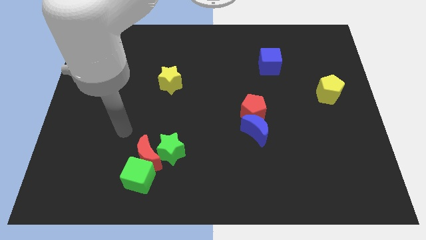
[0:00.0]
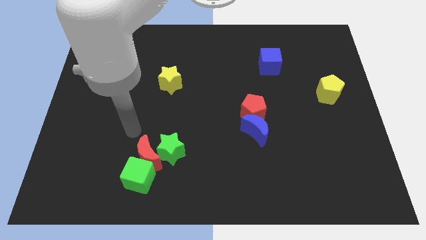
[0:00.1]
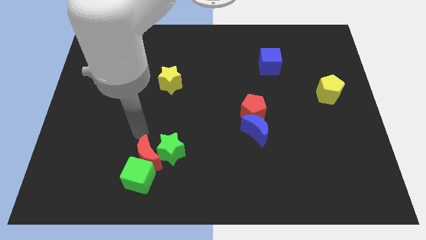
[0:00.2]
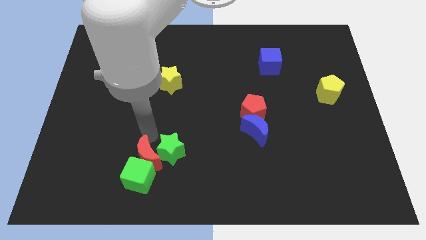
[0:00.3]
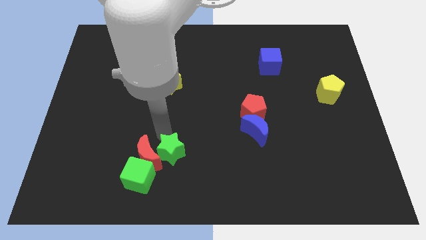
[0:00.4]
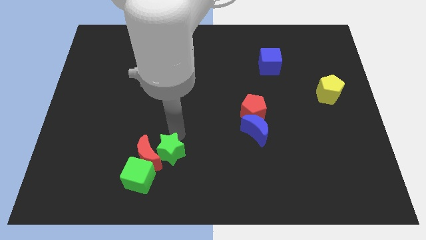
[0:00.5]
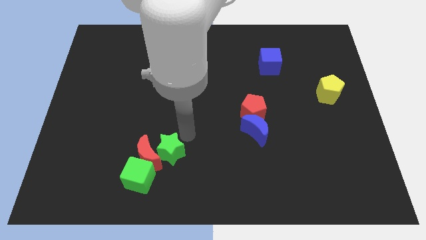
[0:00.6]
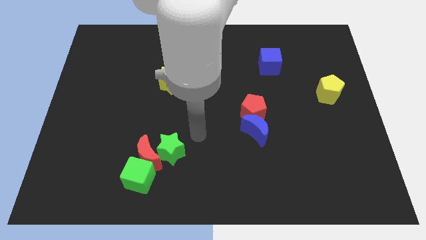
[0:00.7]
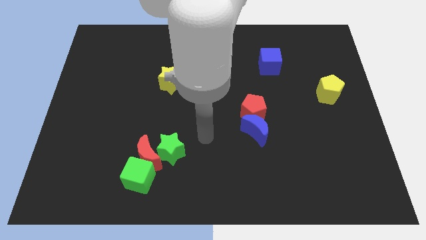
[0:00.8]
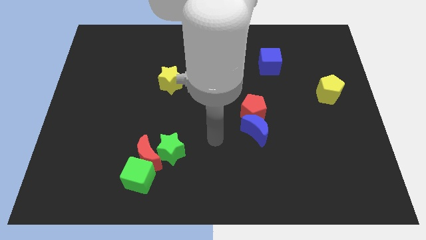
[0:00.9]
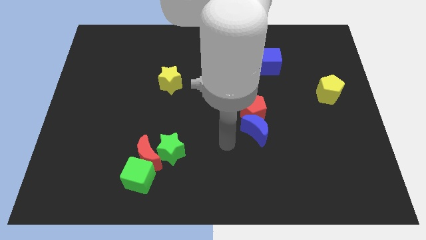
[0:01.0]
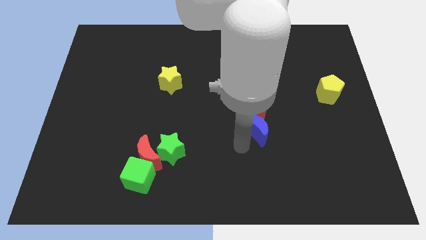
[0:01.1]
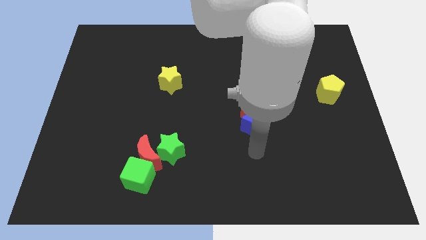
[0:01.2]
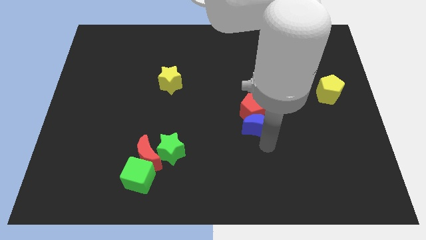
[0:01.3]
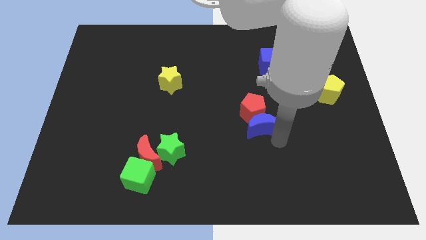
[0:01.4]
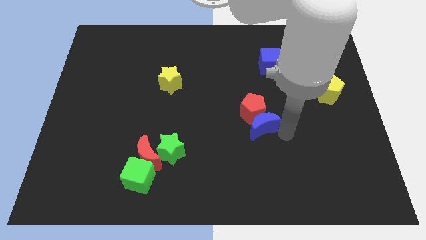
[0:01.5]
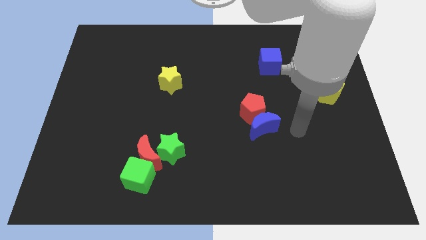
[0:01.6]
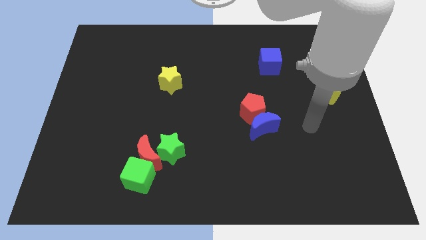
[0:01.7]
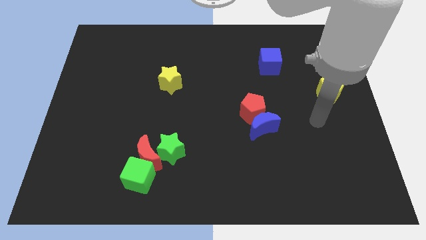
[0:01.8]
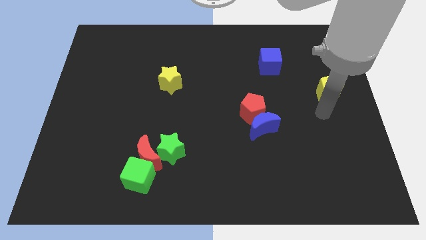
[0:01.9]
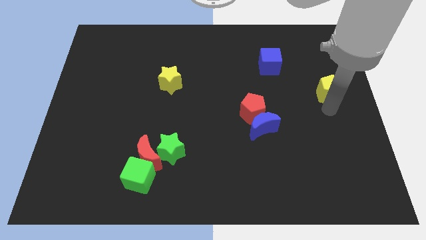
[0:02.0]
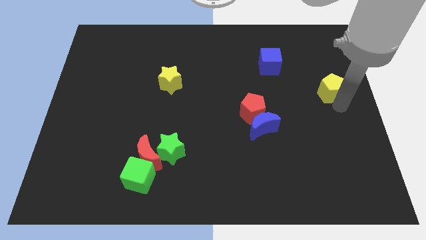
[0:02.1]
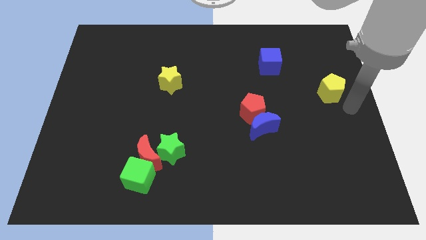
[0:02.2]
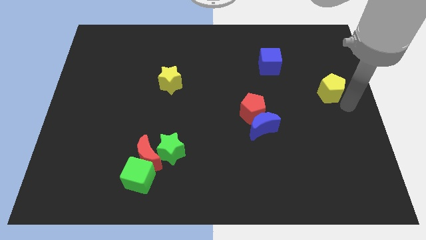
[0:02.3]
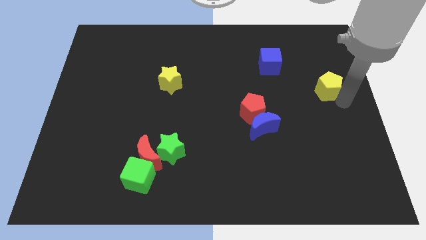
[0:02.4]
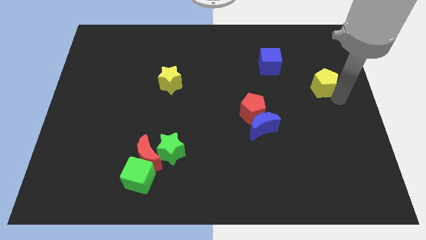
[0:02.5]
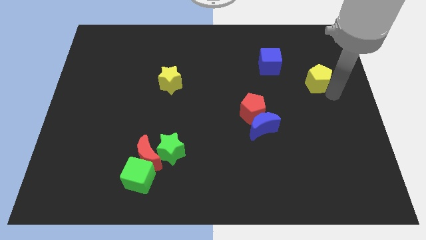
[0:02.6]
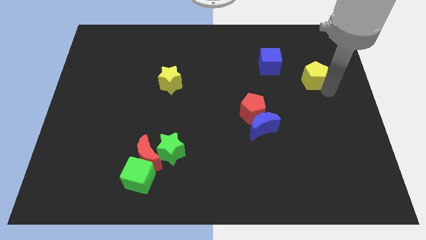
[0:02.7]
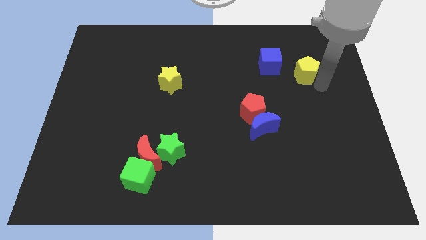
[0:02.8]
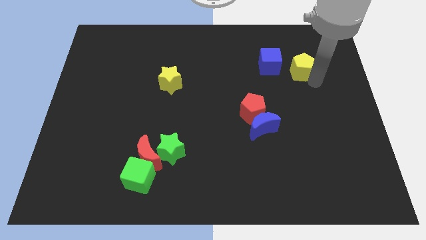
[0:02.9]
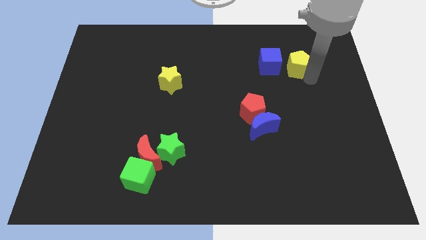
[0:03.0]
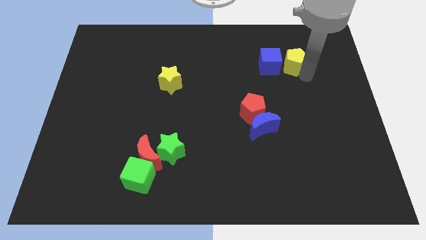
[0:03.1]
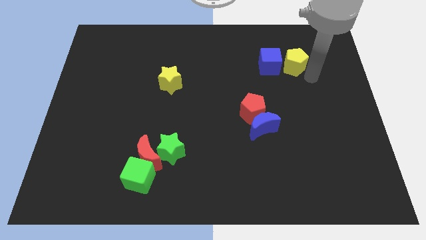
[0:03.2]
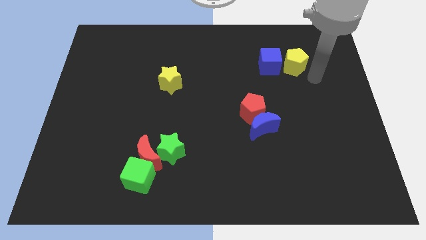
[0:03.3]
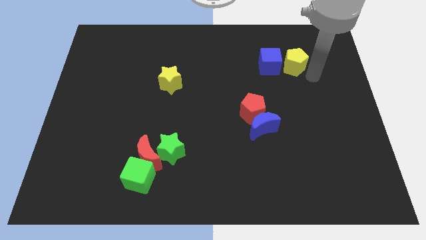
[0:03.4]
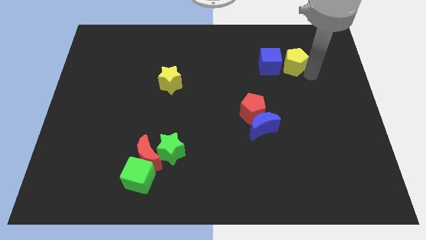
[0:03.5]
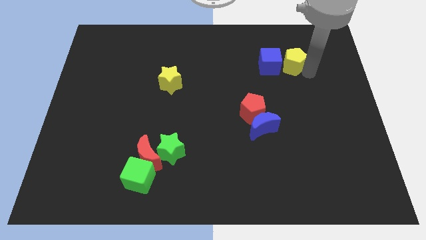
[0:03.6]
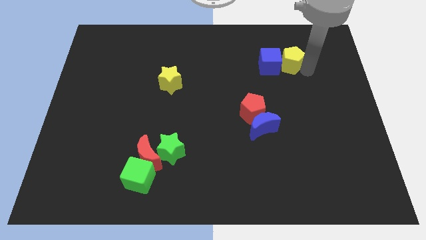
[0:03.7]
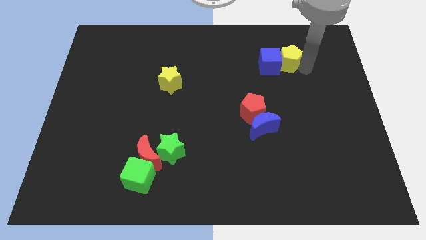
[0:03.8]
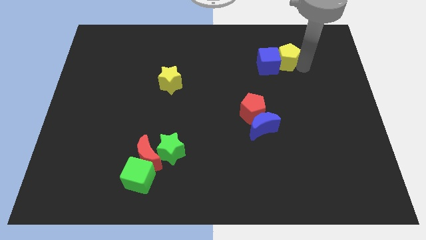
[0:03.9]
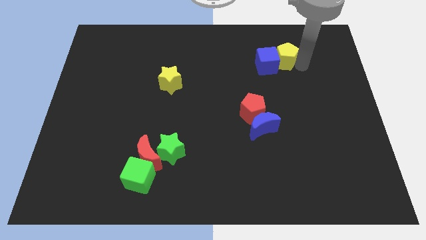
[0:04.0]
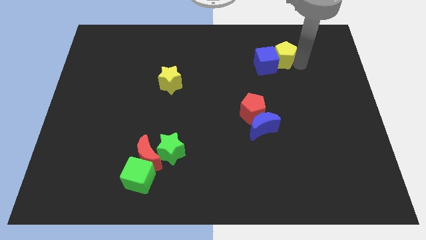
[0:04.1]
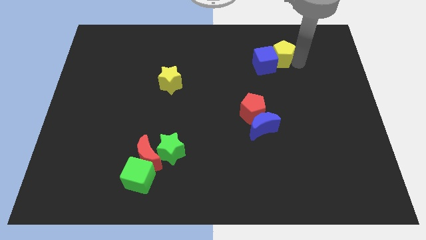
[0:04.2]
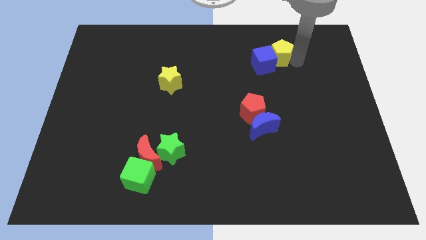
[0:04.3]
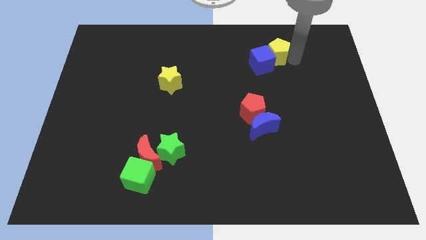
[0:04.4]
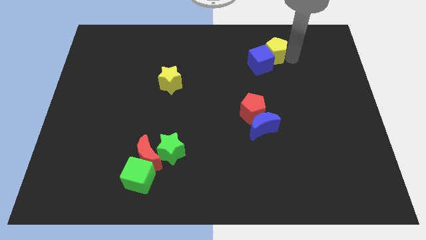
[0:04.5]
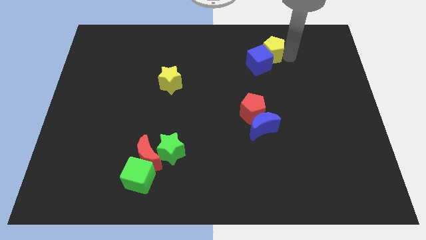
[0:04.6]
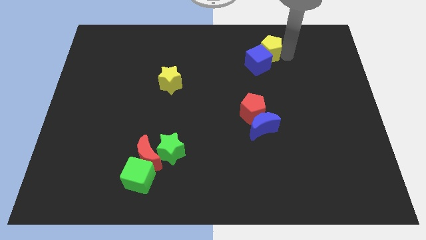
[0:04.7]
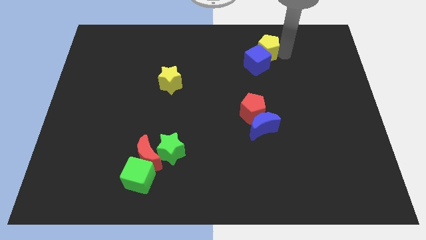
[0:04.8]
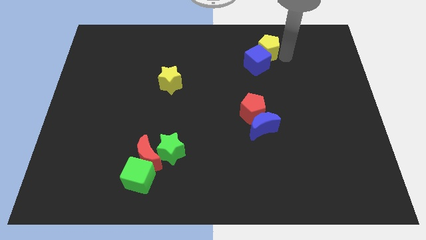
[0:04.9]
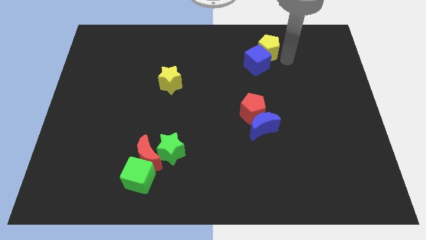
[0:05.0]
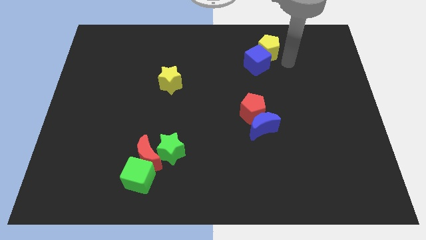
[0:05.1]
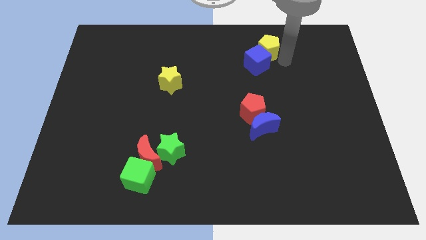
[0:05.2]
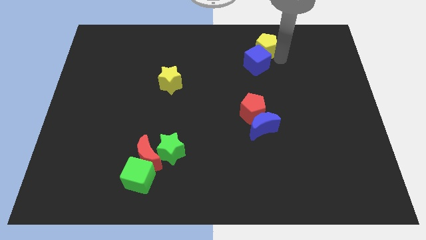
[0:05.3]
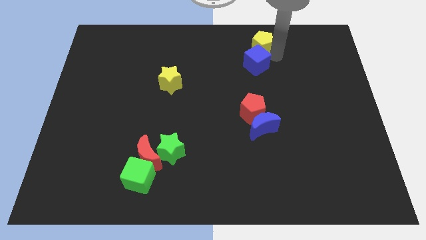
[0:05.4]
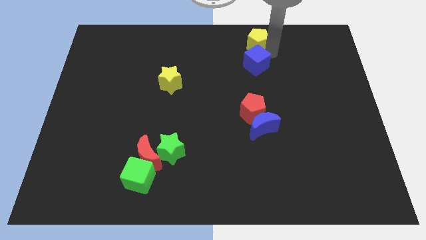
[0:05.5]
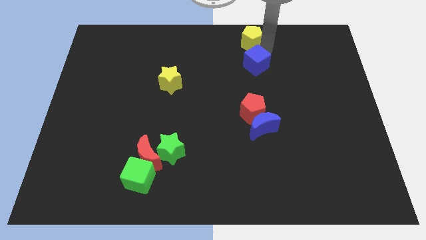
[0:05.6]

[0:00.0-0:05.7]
put the yellow pentagon to the top side
